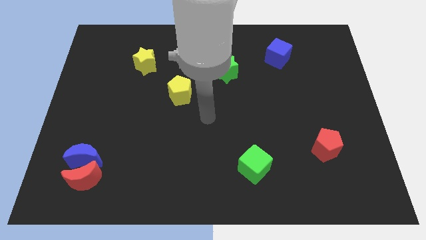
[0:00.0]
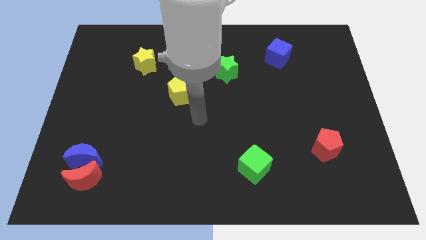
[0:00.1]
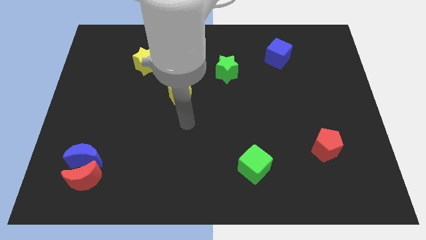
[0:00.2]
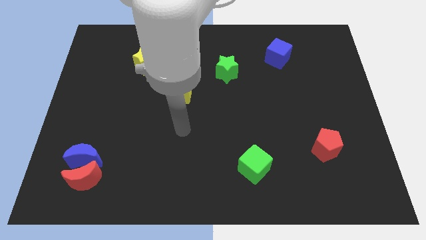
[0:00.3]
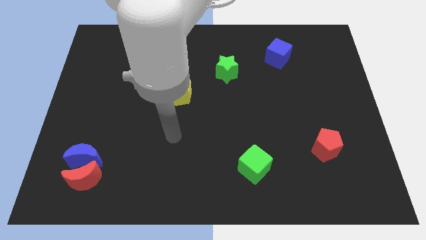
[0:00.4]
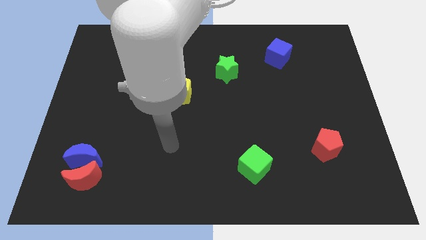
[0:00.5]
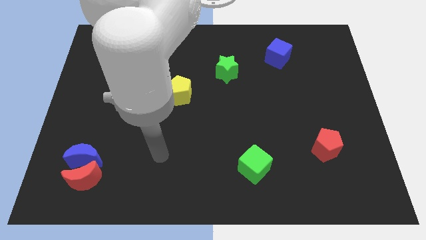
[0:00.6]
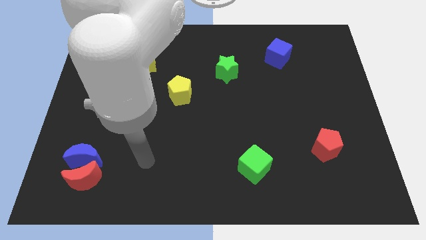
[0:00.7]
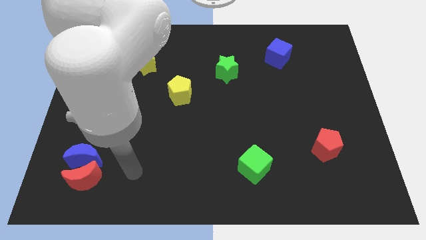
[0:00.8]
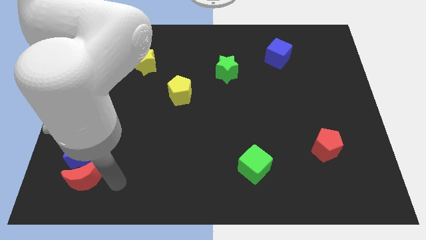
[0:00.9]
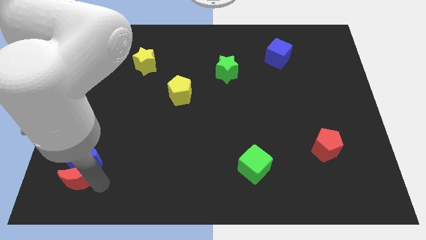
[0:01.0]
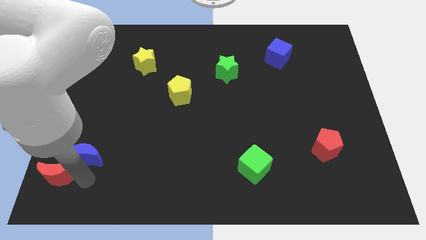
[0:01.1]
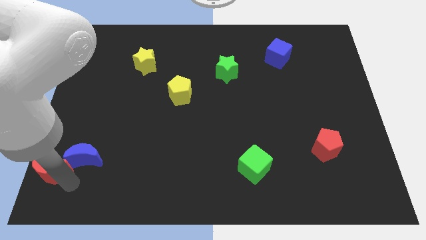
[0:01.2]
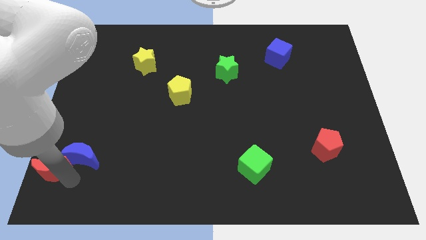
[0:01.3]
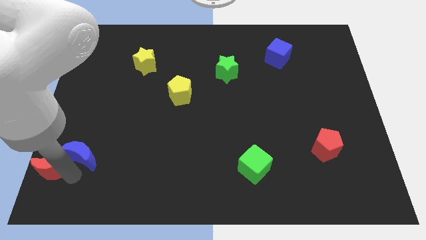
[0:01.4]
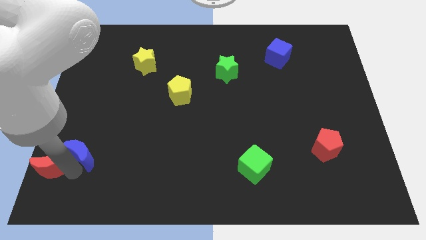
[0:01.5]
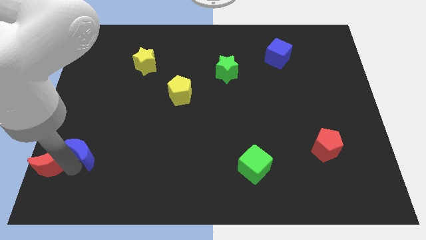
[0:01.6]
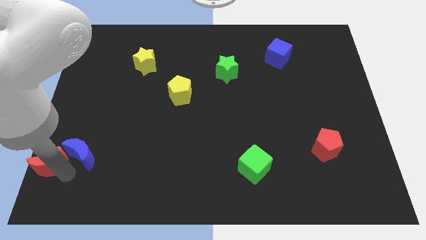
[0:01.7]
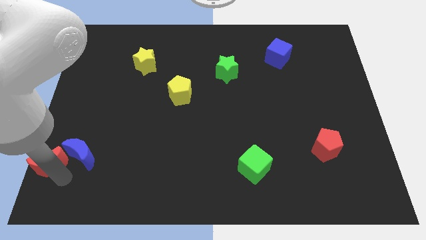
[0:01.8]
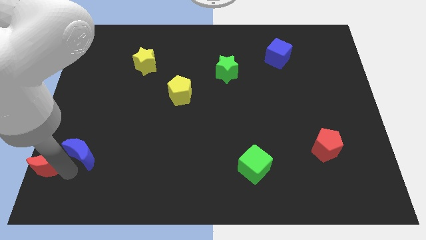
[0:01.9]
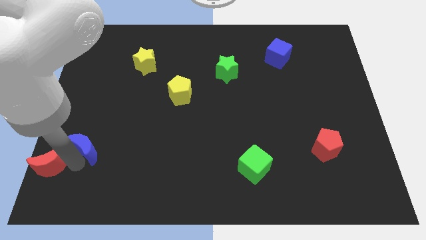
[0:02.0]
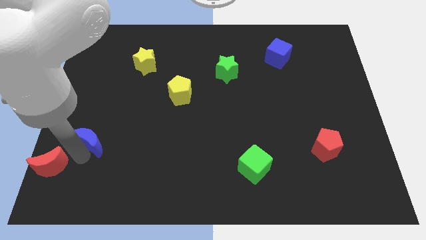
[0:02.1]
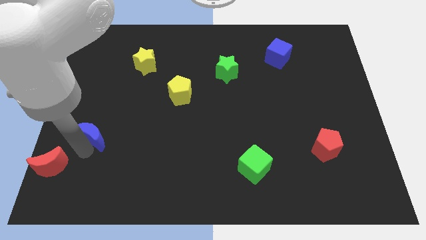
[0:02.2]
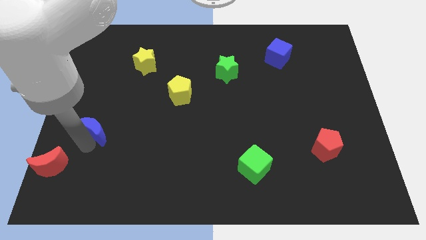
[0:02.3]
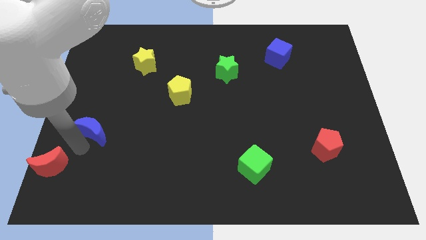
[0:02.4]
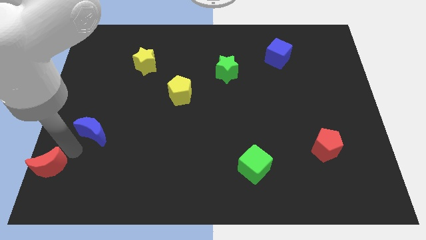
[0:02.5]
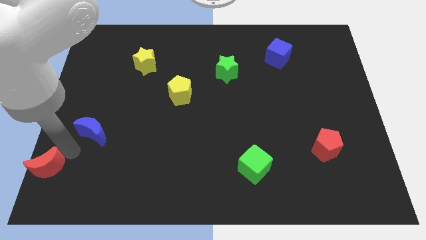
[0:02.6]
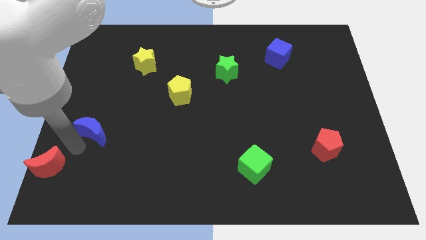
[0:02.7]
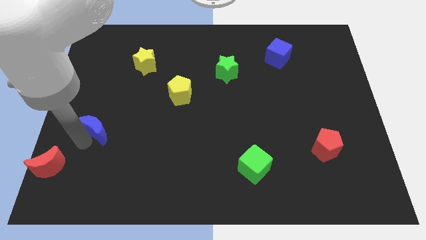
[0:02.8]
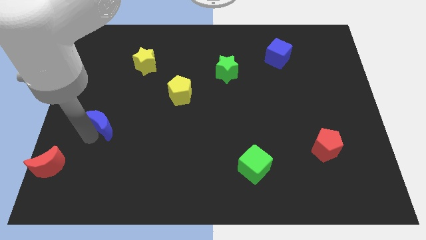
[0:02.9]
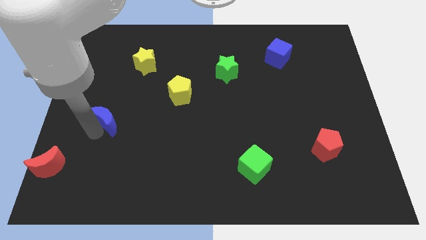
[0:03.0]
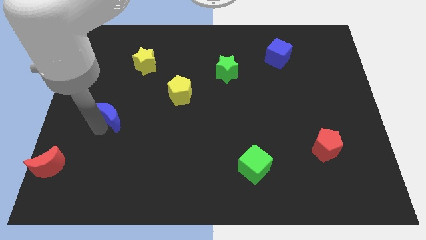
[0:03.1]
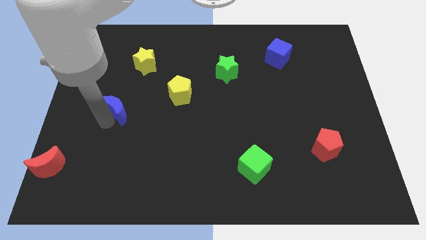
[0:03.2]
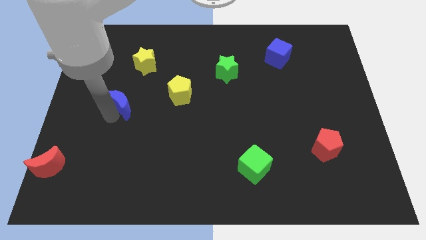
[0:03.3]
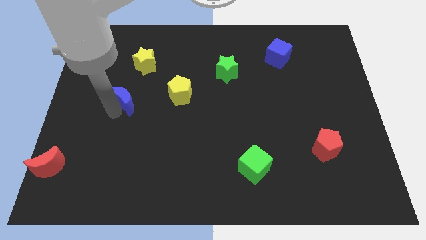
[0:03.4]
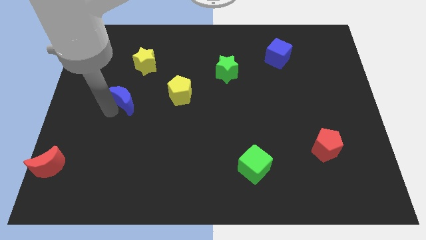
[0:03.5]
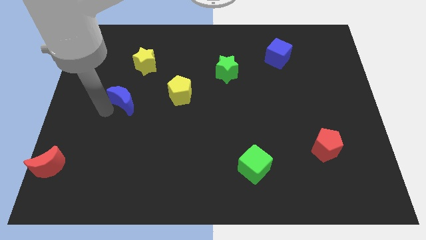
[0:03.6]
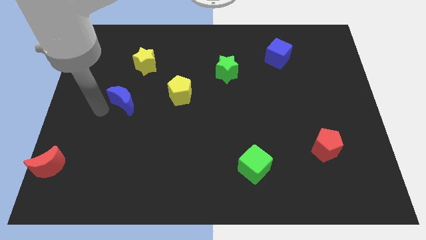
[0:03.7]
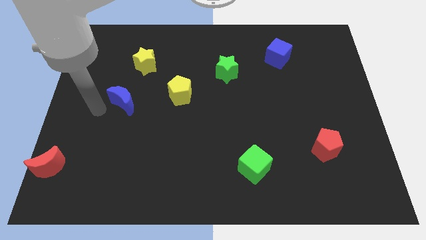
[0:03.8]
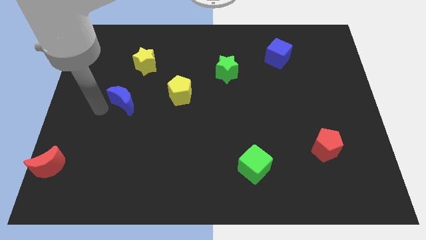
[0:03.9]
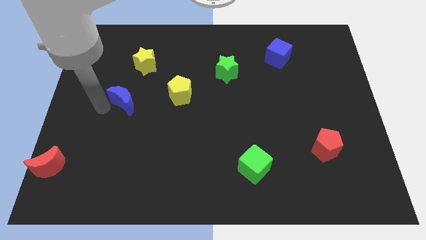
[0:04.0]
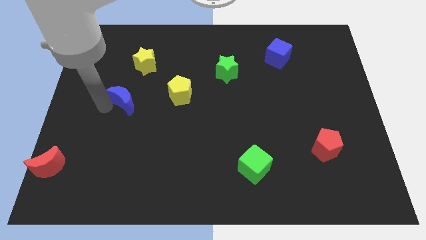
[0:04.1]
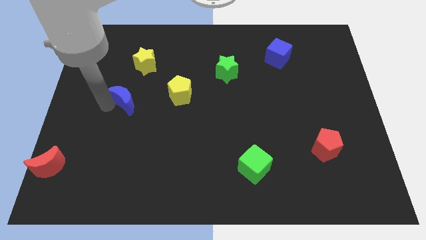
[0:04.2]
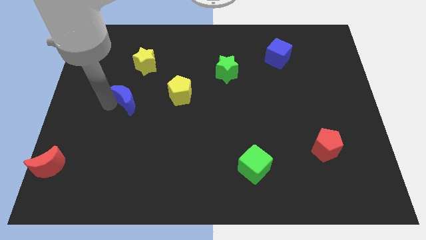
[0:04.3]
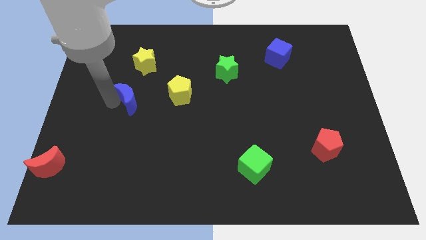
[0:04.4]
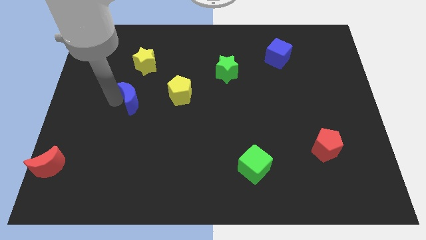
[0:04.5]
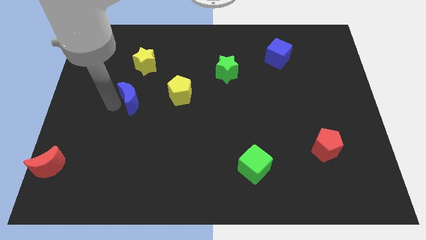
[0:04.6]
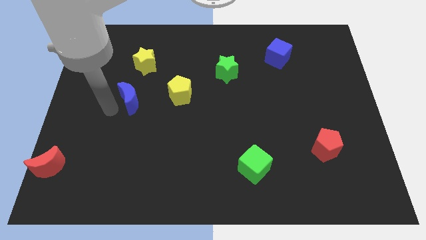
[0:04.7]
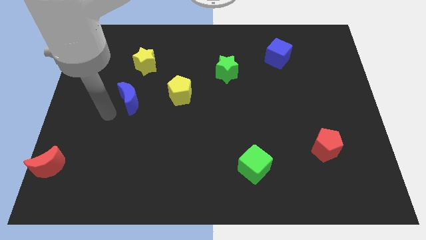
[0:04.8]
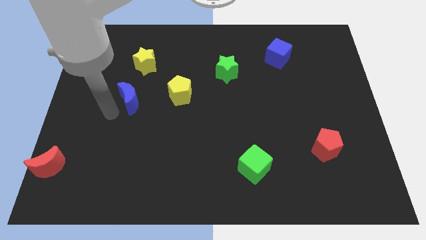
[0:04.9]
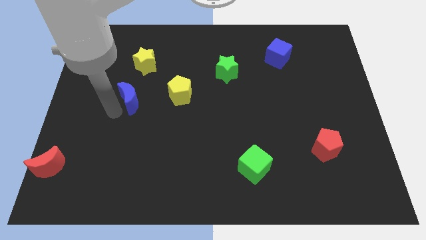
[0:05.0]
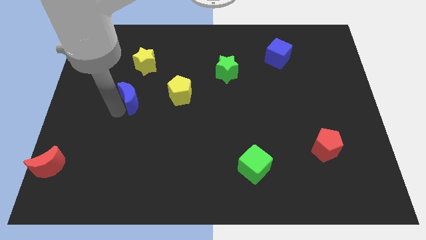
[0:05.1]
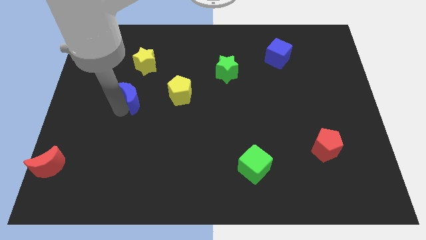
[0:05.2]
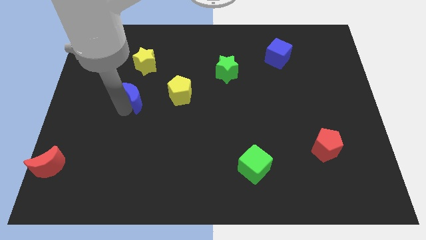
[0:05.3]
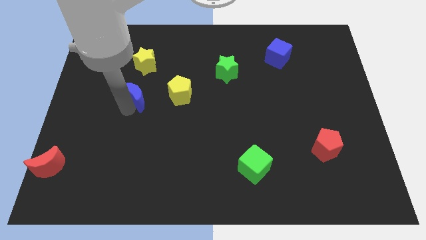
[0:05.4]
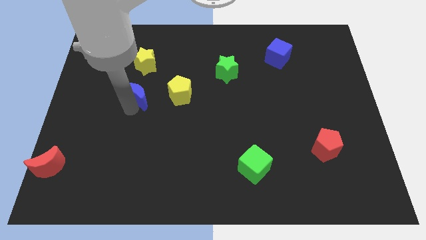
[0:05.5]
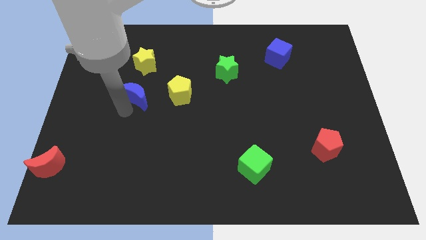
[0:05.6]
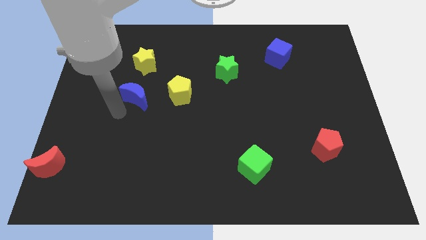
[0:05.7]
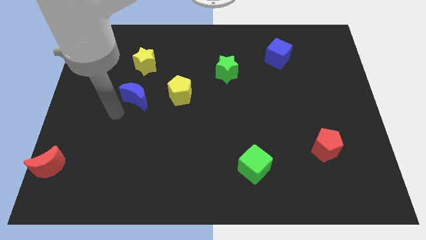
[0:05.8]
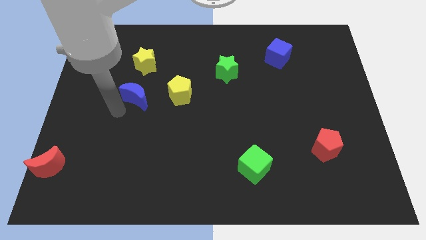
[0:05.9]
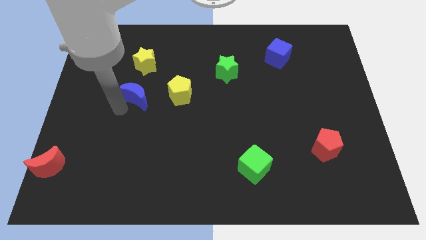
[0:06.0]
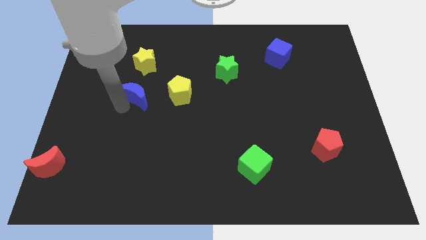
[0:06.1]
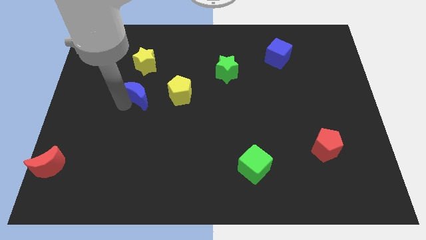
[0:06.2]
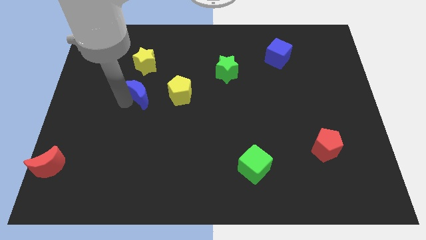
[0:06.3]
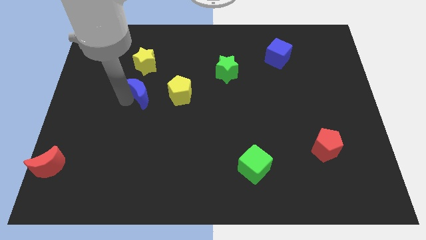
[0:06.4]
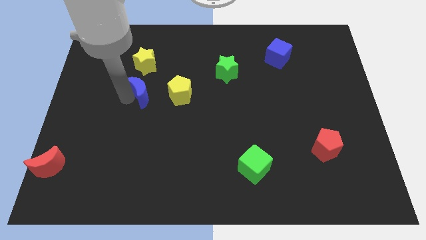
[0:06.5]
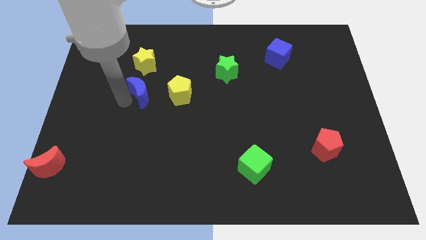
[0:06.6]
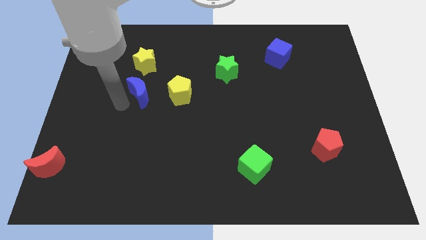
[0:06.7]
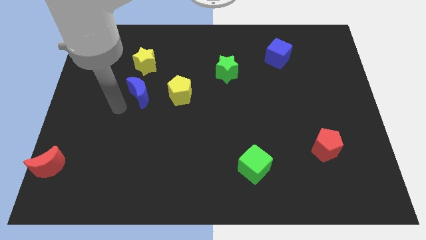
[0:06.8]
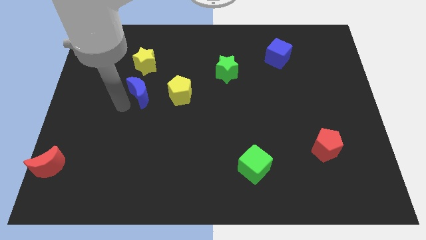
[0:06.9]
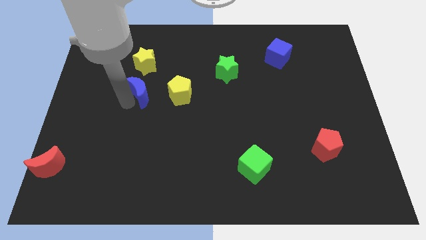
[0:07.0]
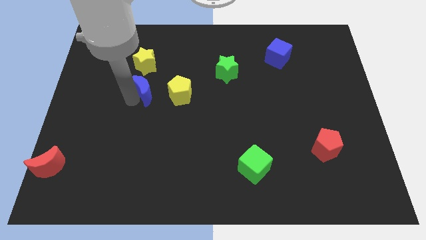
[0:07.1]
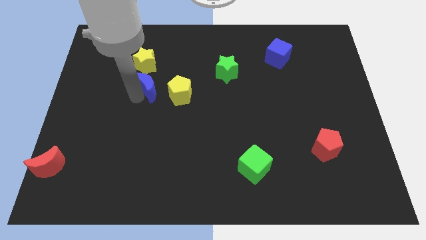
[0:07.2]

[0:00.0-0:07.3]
move the blue moon upwards and then right
